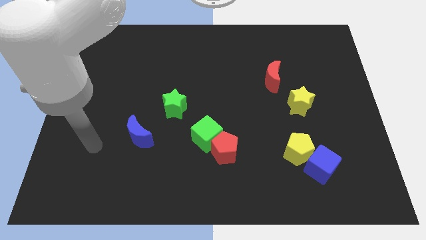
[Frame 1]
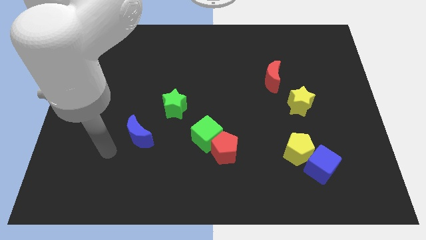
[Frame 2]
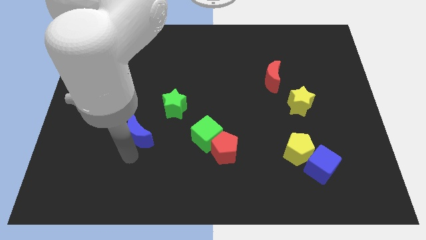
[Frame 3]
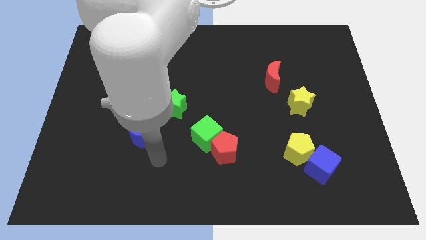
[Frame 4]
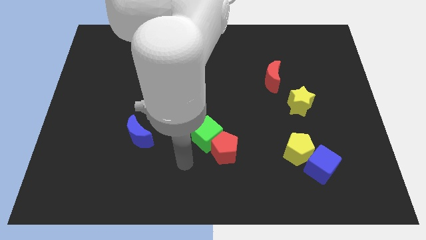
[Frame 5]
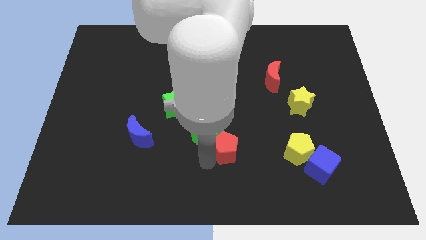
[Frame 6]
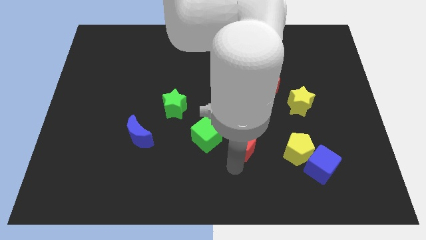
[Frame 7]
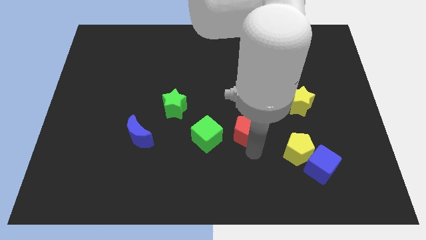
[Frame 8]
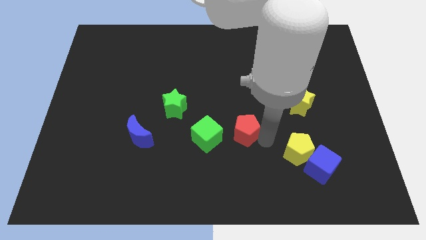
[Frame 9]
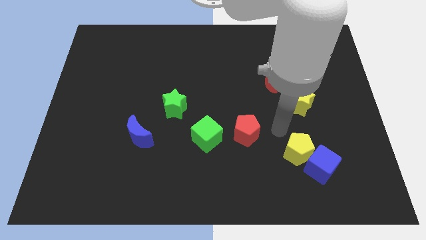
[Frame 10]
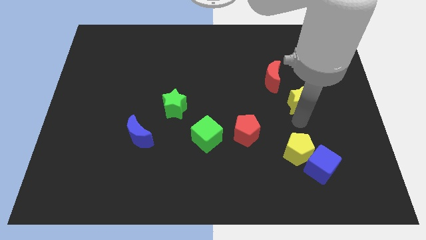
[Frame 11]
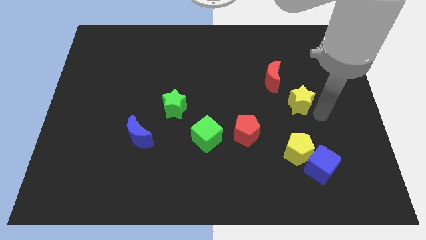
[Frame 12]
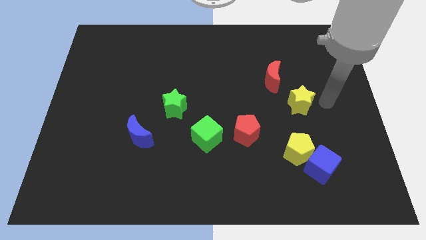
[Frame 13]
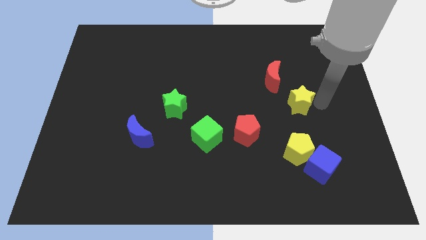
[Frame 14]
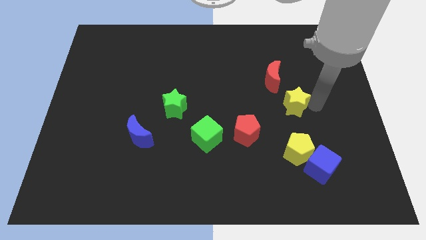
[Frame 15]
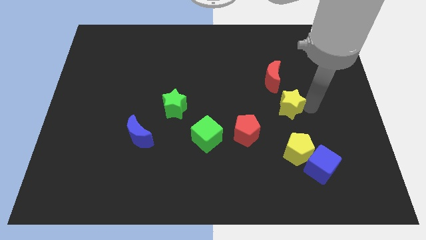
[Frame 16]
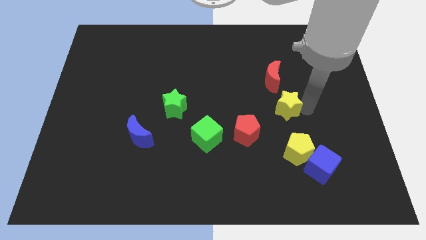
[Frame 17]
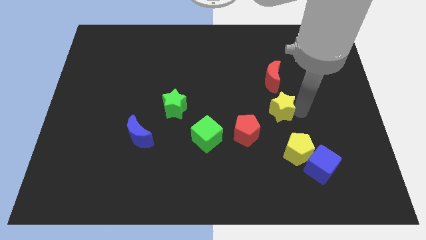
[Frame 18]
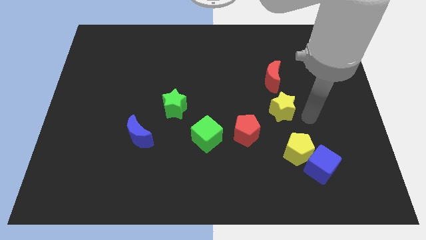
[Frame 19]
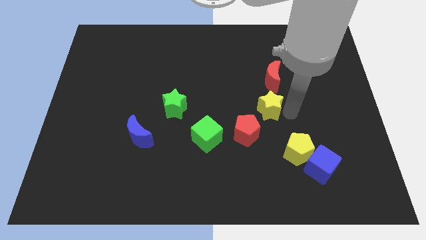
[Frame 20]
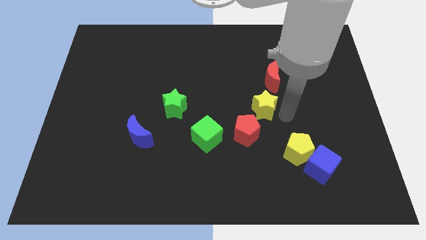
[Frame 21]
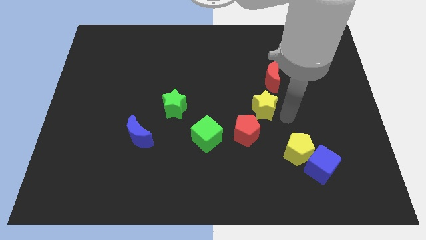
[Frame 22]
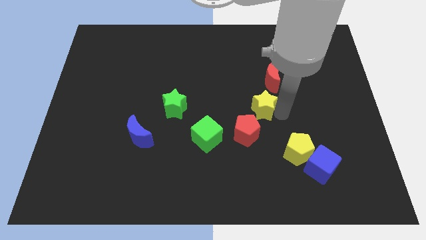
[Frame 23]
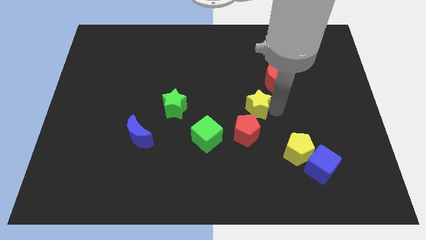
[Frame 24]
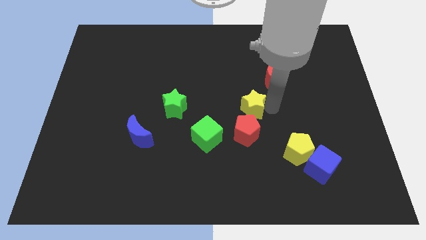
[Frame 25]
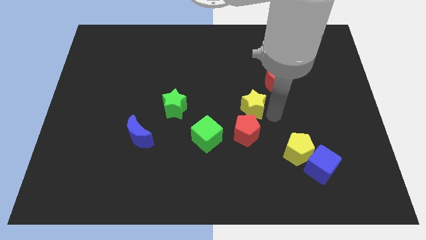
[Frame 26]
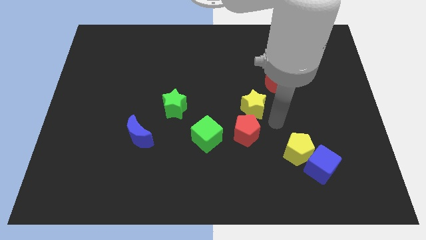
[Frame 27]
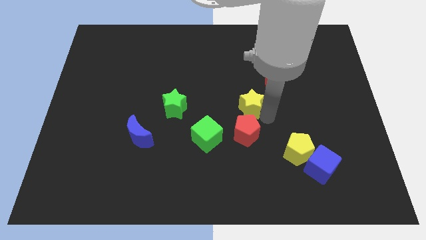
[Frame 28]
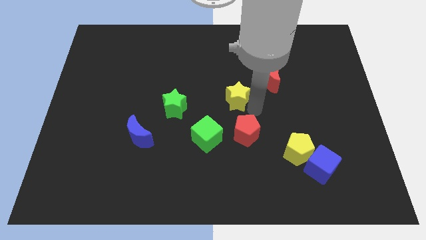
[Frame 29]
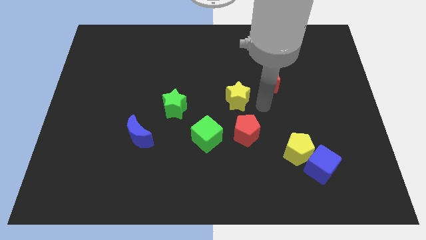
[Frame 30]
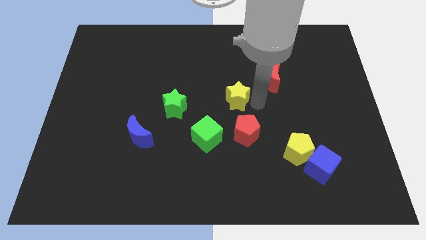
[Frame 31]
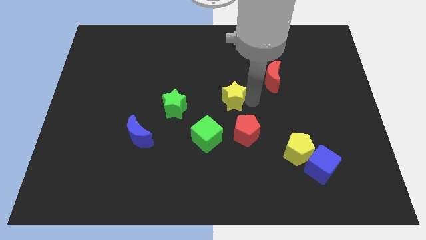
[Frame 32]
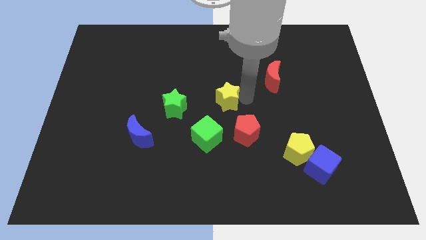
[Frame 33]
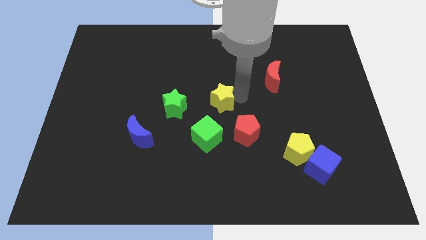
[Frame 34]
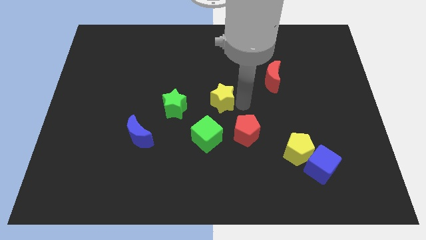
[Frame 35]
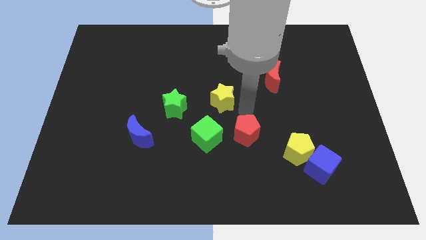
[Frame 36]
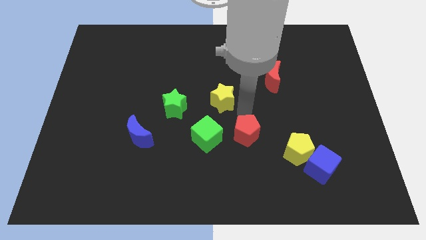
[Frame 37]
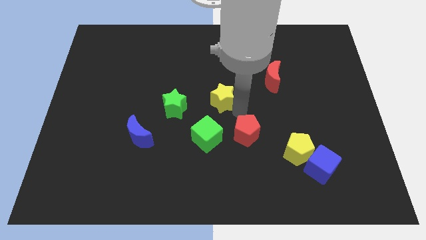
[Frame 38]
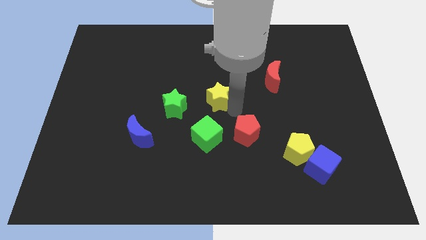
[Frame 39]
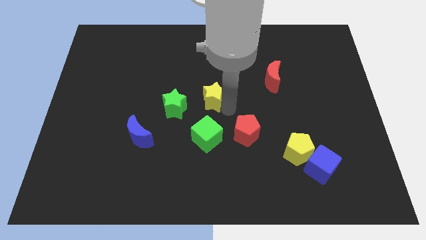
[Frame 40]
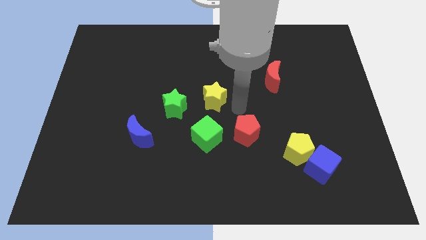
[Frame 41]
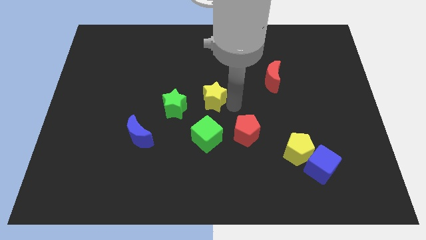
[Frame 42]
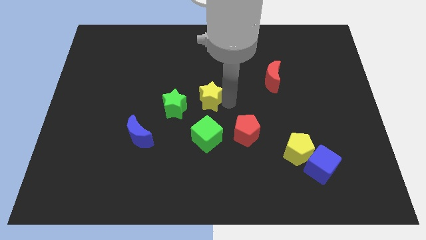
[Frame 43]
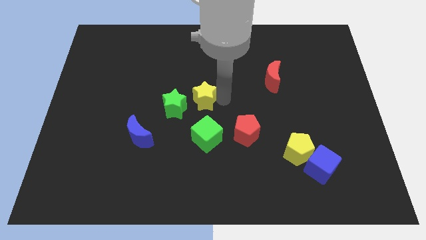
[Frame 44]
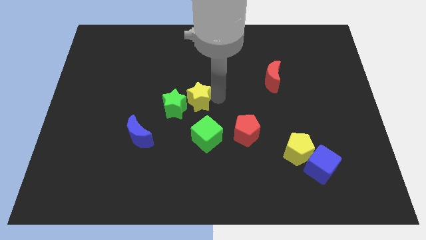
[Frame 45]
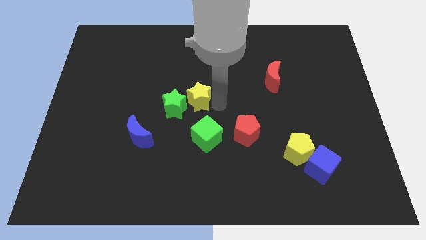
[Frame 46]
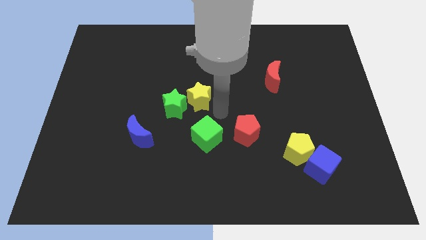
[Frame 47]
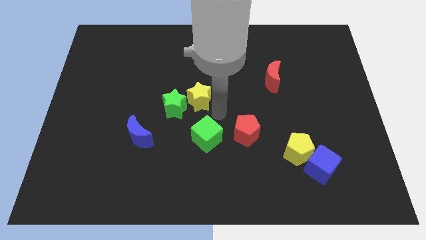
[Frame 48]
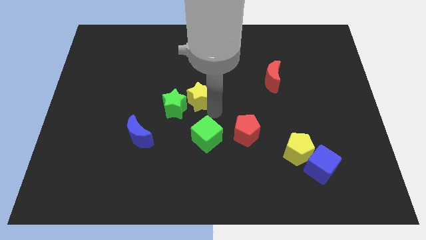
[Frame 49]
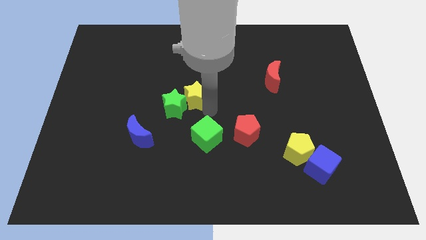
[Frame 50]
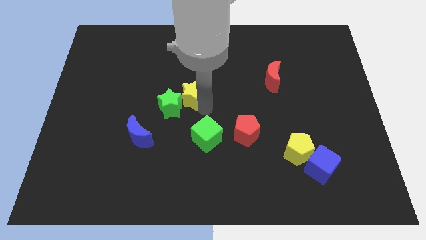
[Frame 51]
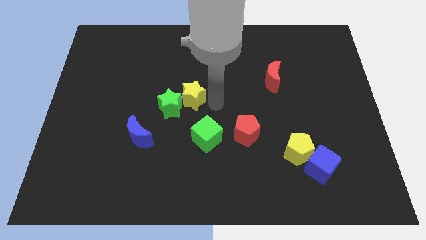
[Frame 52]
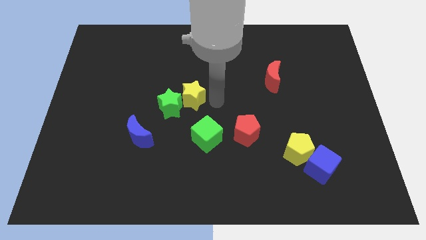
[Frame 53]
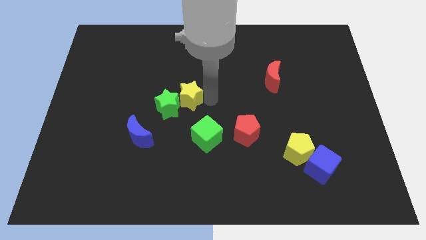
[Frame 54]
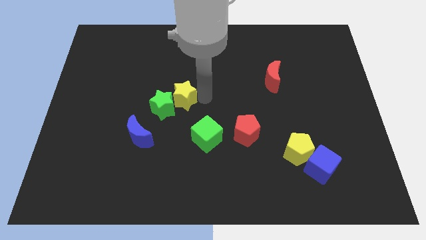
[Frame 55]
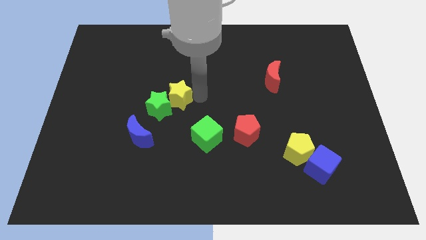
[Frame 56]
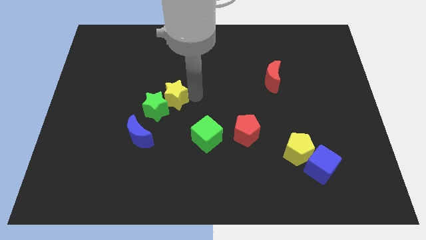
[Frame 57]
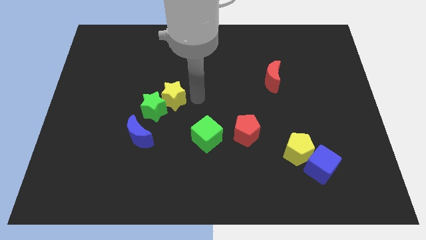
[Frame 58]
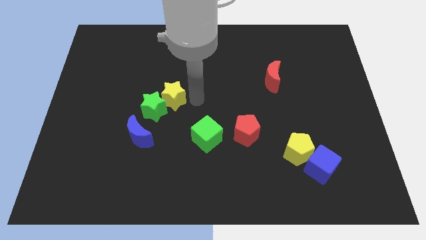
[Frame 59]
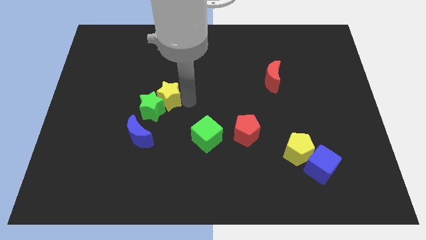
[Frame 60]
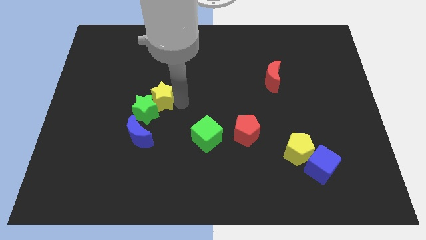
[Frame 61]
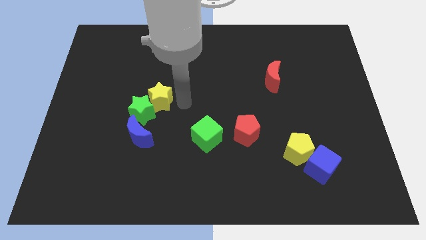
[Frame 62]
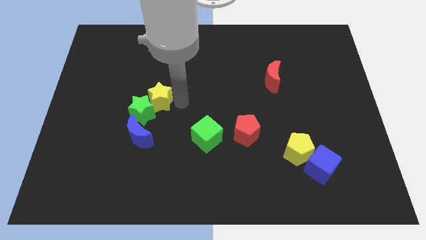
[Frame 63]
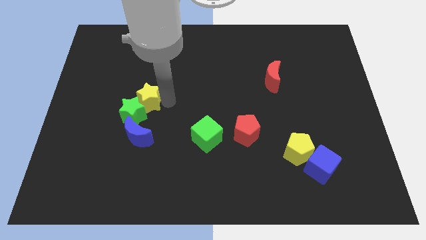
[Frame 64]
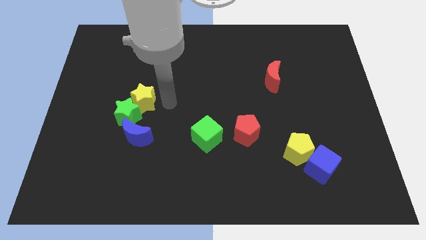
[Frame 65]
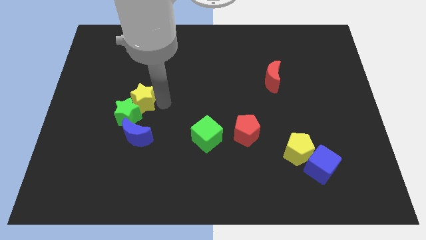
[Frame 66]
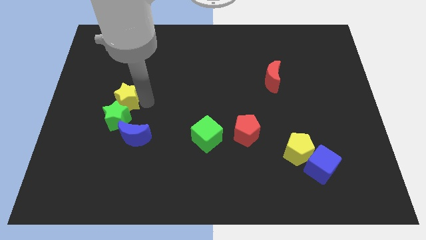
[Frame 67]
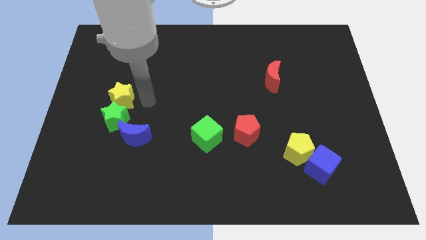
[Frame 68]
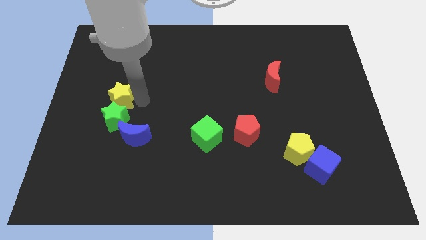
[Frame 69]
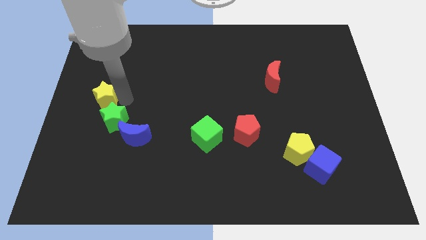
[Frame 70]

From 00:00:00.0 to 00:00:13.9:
push the yellow star to the center left
